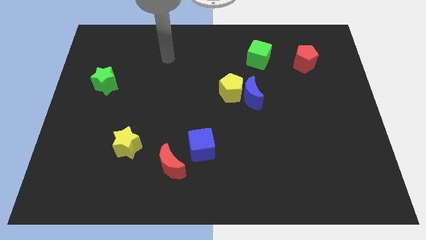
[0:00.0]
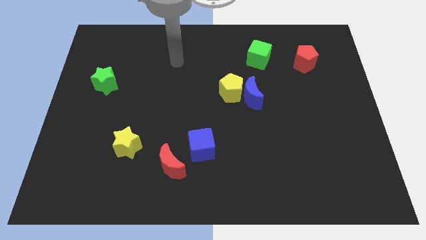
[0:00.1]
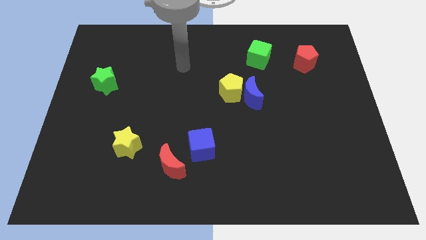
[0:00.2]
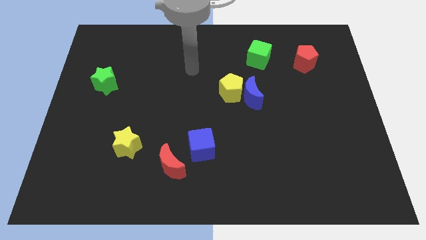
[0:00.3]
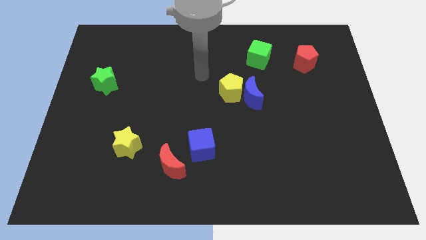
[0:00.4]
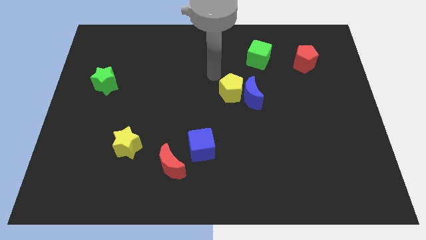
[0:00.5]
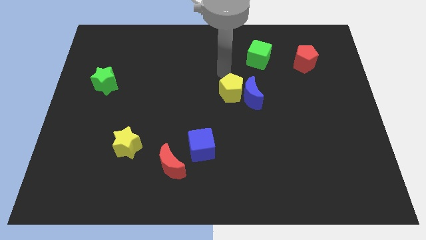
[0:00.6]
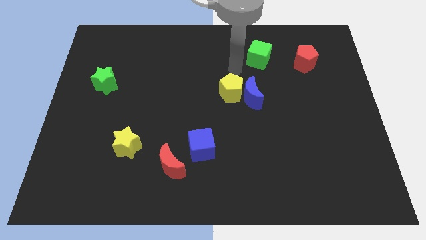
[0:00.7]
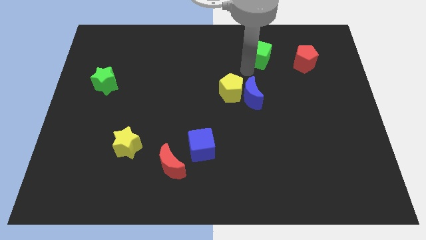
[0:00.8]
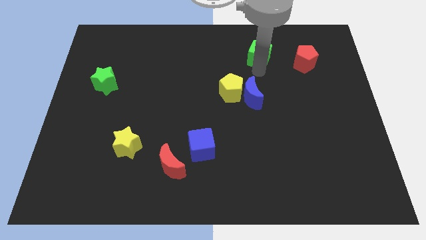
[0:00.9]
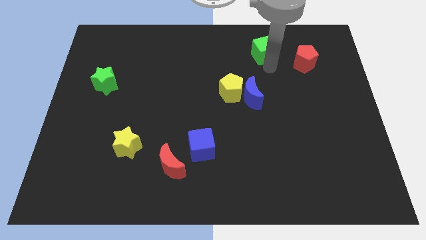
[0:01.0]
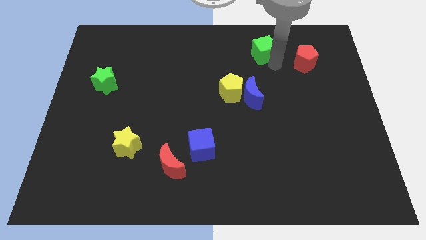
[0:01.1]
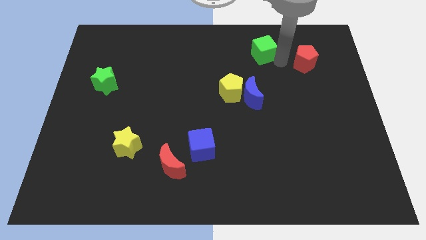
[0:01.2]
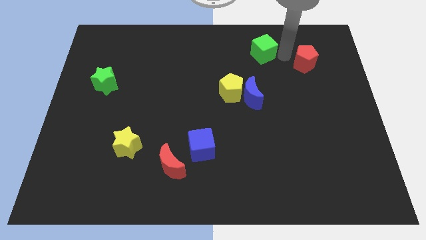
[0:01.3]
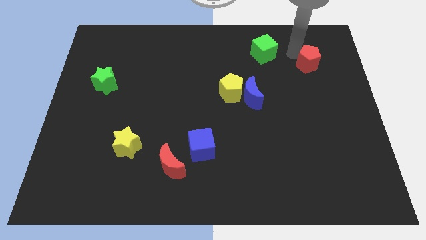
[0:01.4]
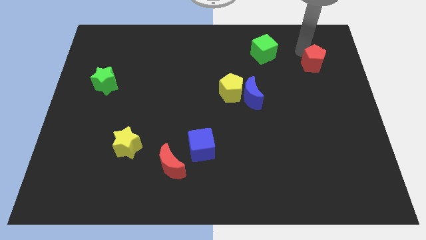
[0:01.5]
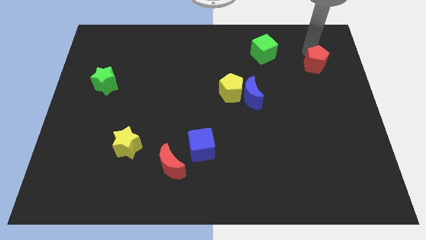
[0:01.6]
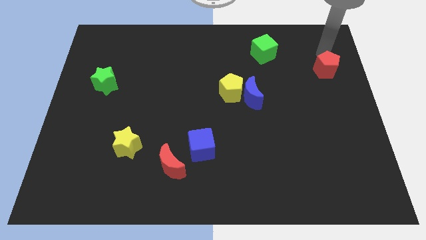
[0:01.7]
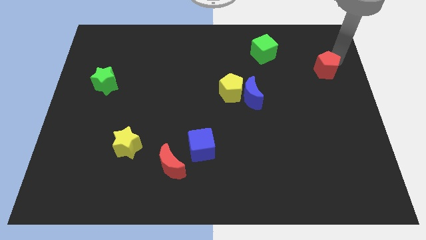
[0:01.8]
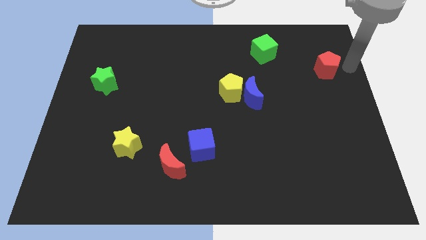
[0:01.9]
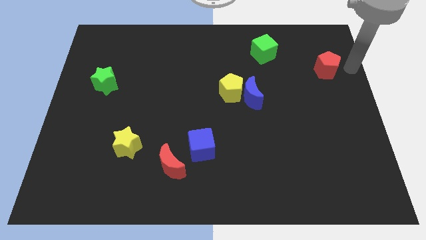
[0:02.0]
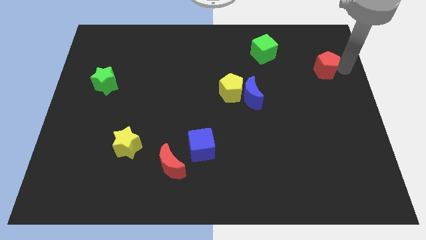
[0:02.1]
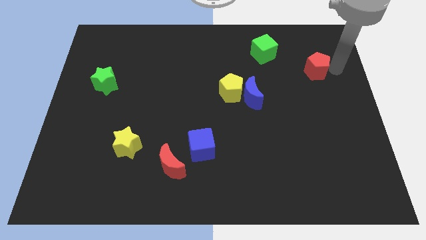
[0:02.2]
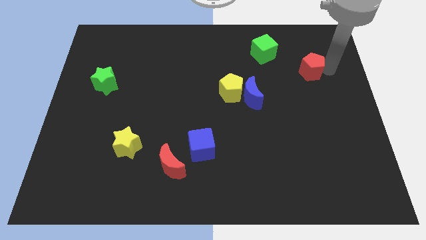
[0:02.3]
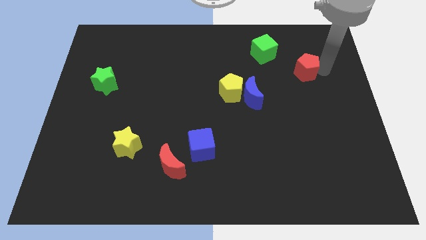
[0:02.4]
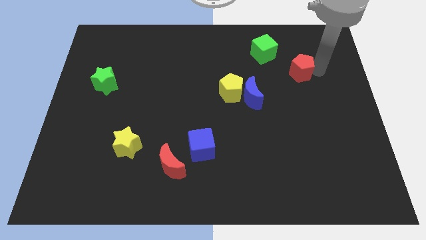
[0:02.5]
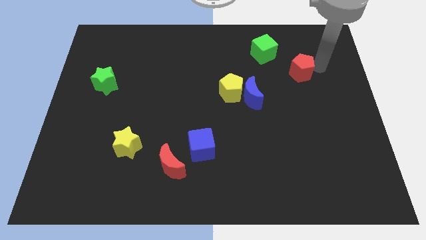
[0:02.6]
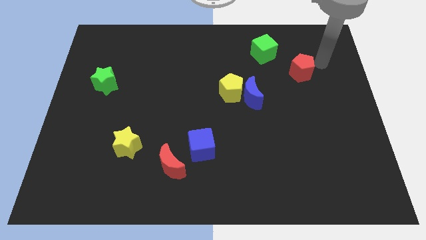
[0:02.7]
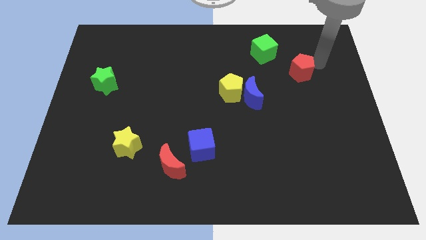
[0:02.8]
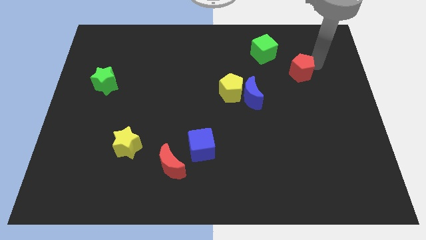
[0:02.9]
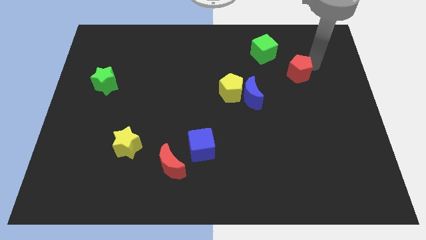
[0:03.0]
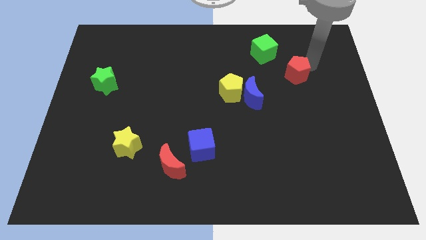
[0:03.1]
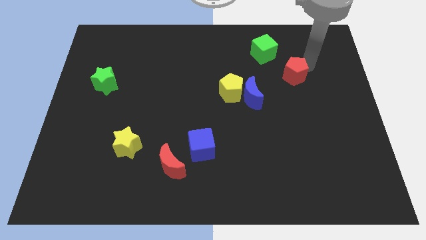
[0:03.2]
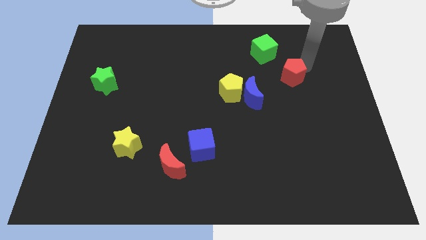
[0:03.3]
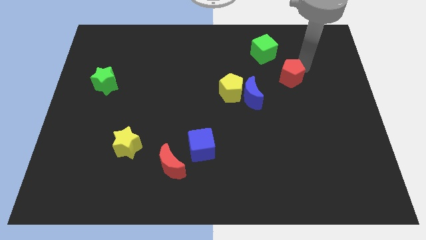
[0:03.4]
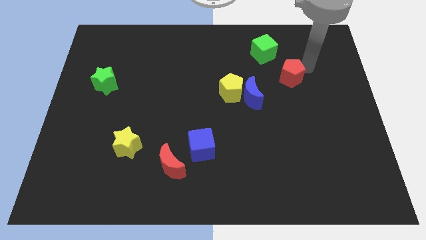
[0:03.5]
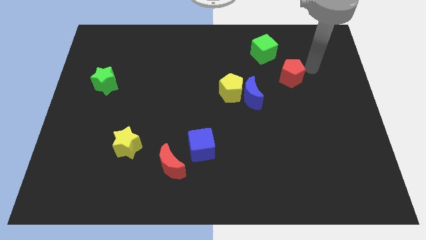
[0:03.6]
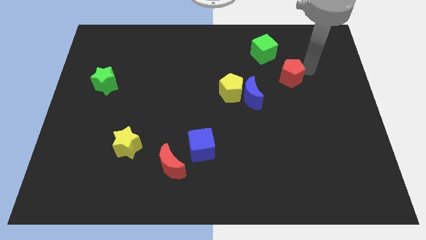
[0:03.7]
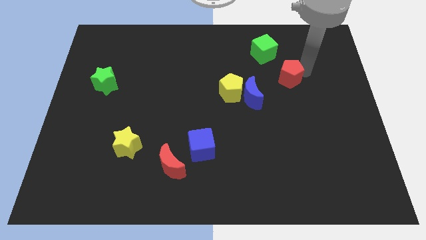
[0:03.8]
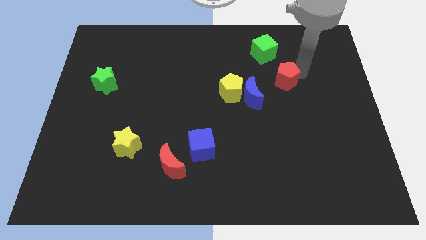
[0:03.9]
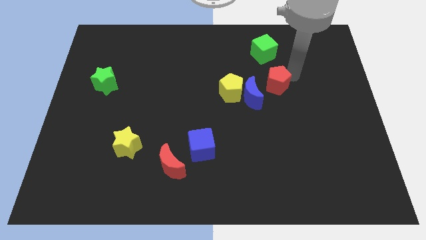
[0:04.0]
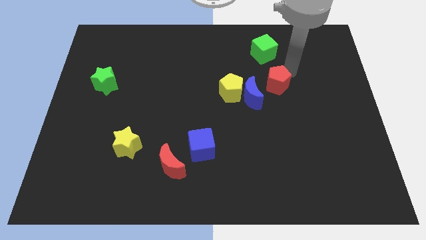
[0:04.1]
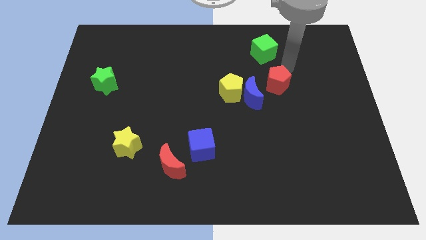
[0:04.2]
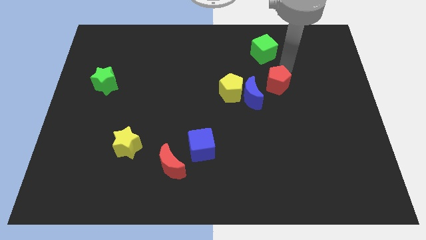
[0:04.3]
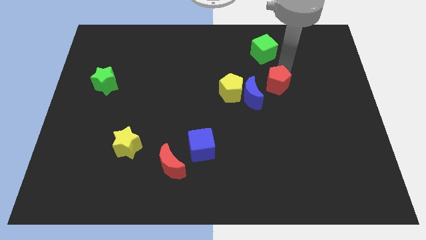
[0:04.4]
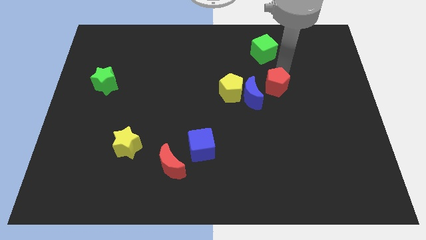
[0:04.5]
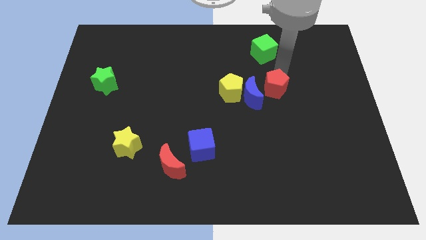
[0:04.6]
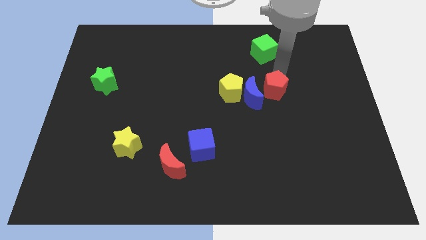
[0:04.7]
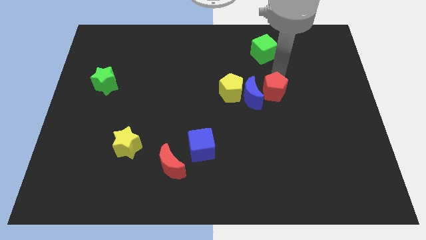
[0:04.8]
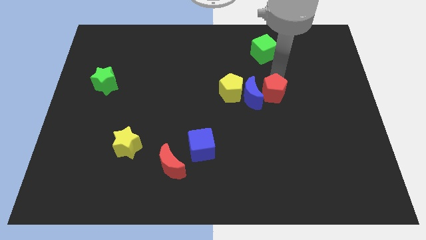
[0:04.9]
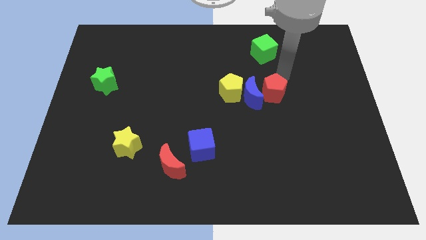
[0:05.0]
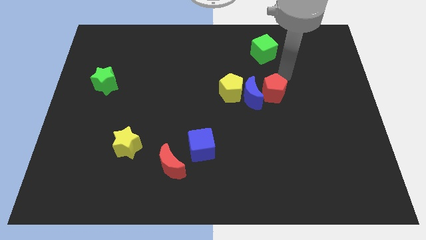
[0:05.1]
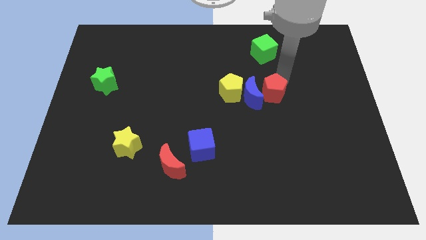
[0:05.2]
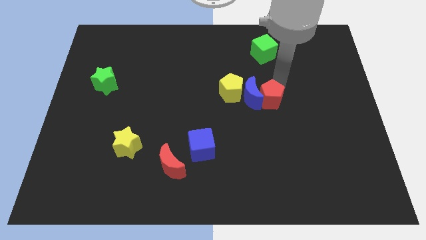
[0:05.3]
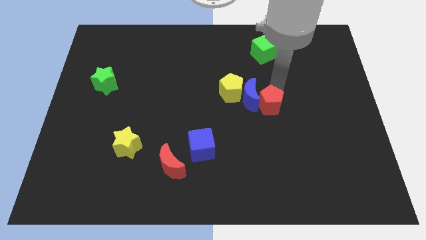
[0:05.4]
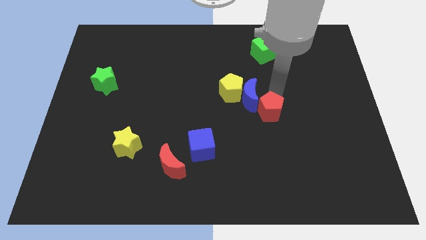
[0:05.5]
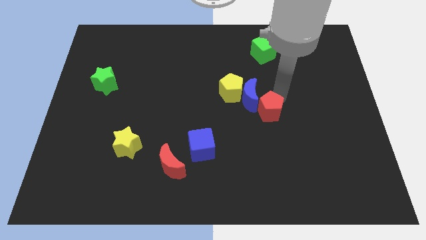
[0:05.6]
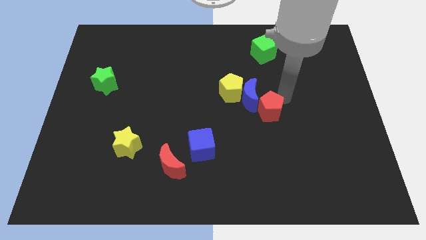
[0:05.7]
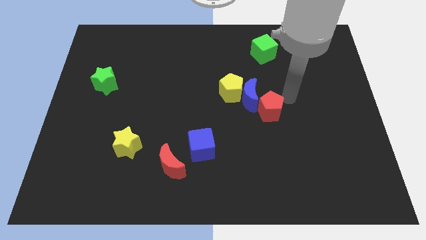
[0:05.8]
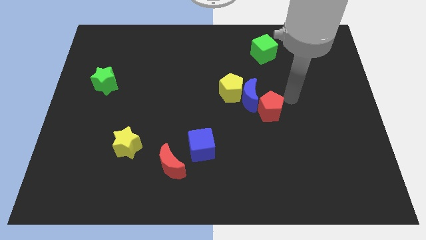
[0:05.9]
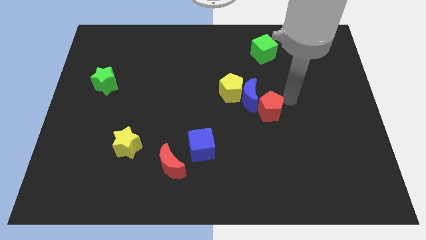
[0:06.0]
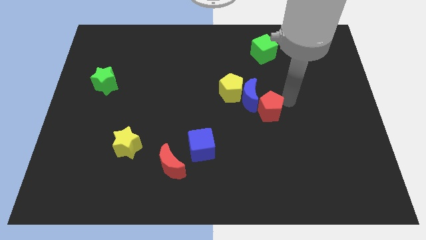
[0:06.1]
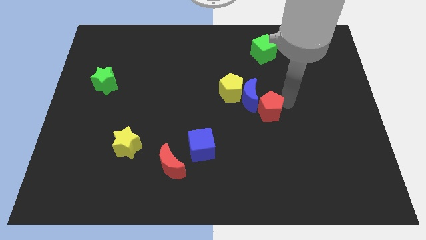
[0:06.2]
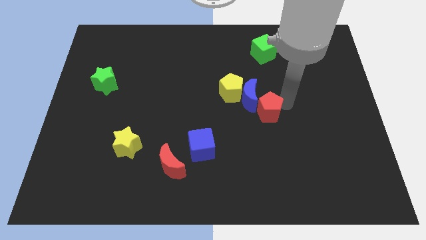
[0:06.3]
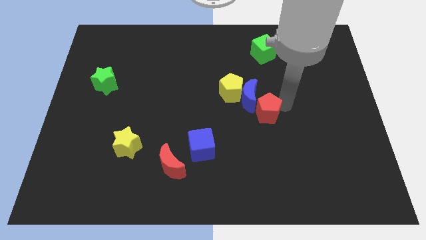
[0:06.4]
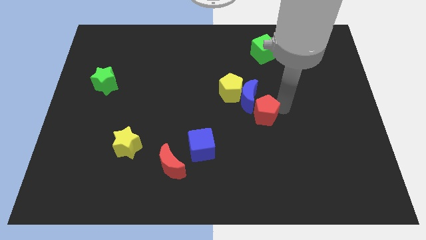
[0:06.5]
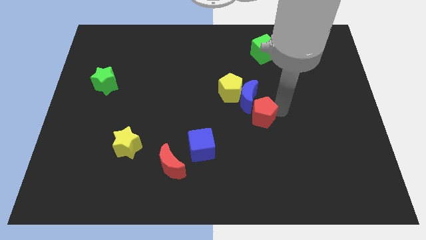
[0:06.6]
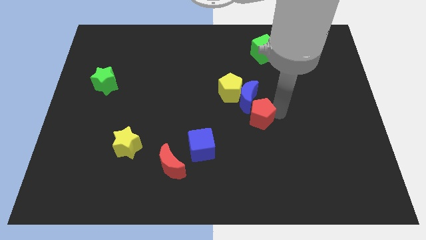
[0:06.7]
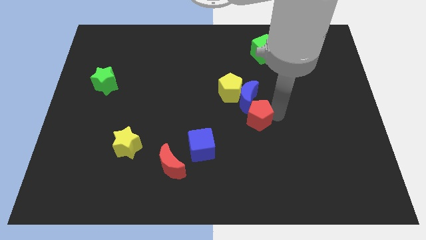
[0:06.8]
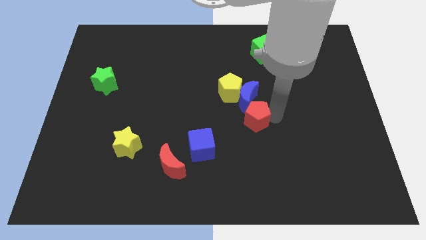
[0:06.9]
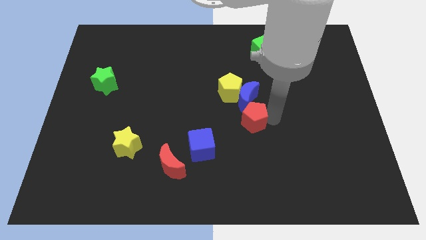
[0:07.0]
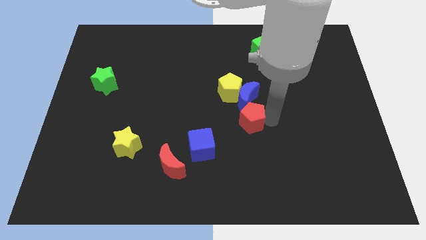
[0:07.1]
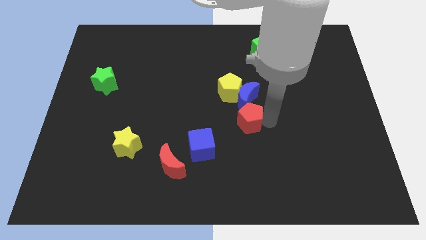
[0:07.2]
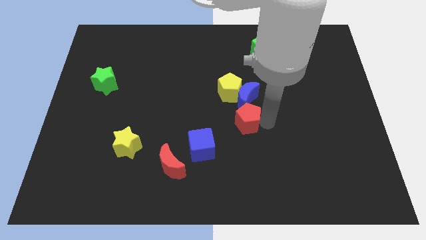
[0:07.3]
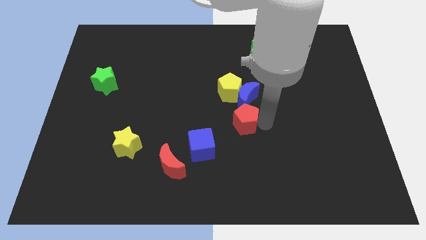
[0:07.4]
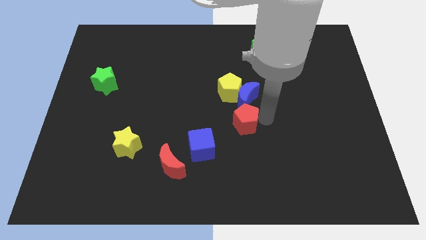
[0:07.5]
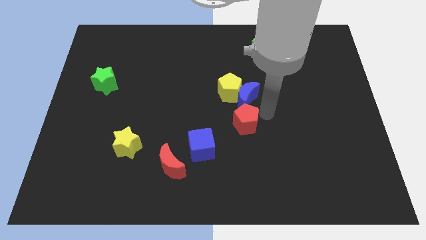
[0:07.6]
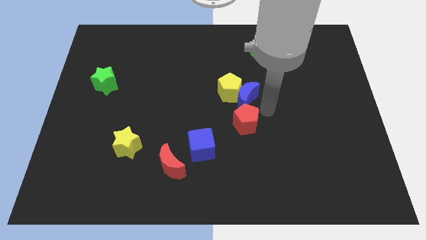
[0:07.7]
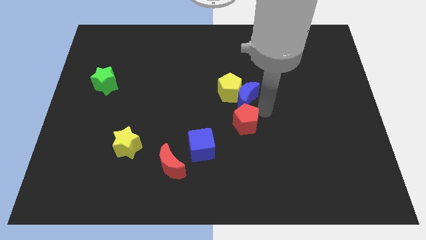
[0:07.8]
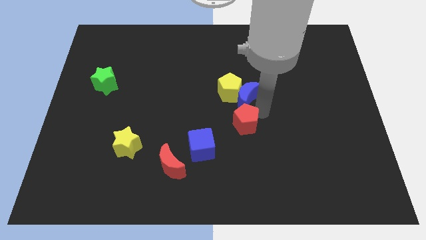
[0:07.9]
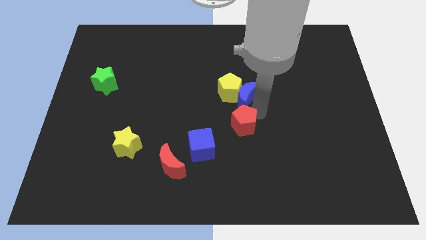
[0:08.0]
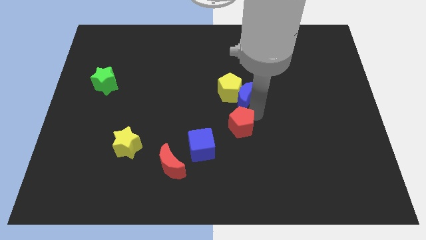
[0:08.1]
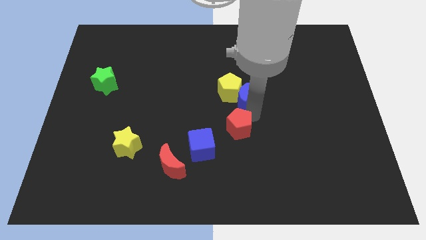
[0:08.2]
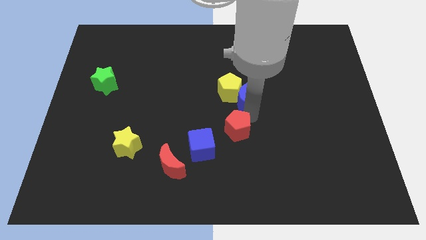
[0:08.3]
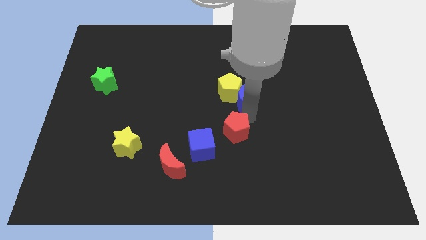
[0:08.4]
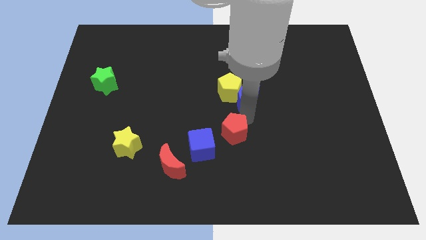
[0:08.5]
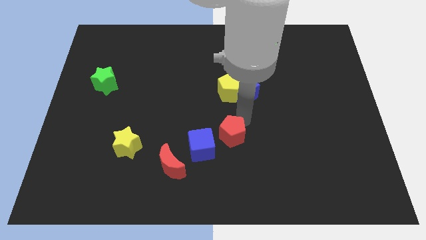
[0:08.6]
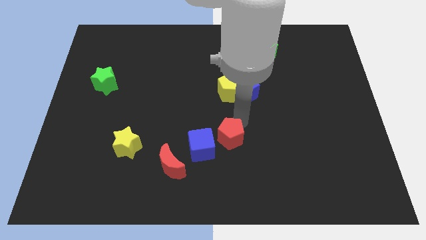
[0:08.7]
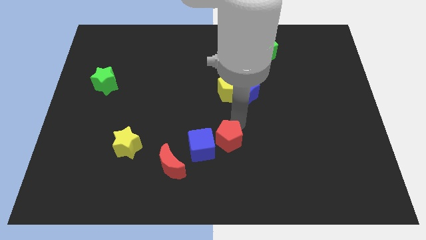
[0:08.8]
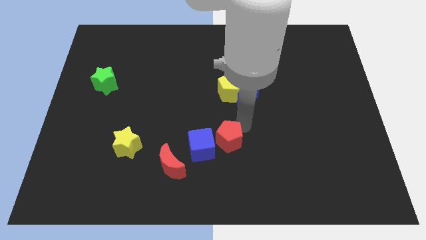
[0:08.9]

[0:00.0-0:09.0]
push the red pentagon towards the blue cube
